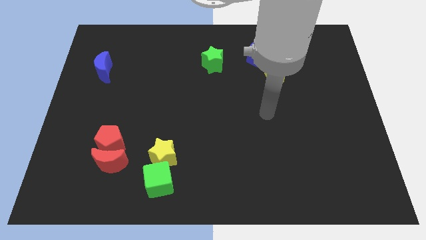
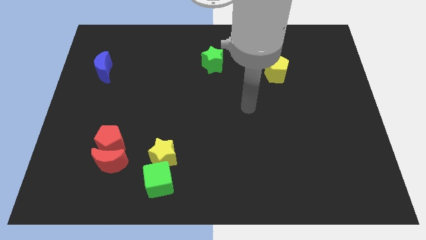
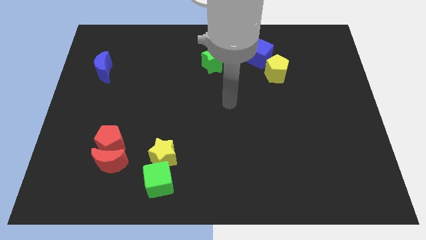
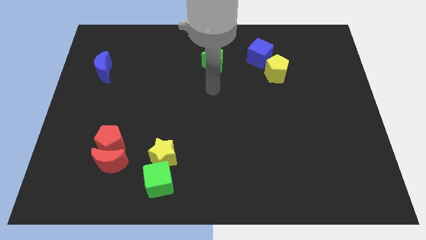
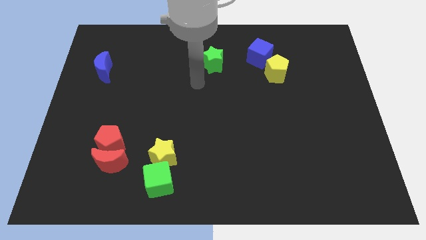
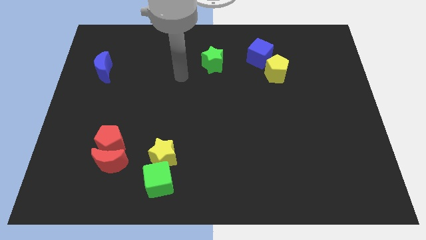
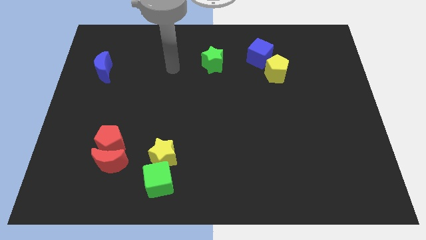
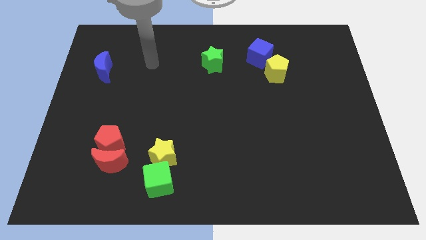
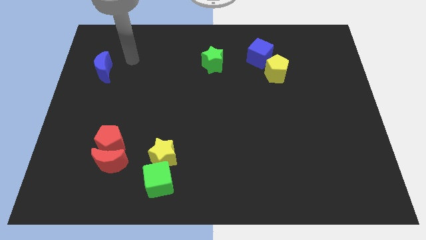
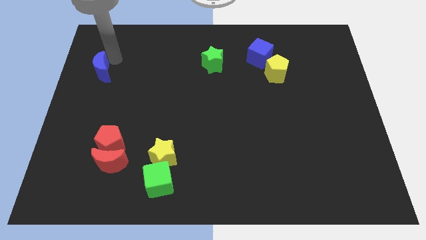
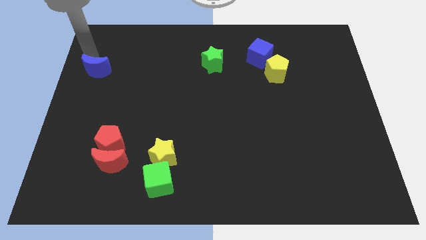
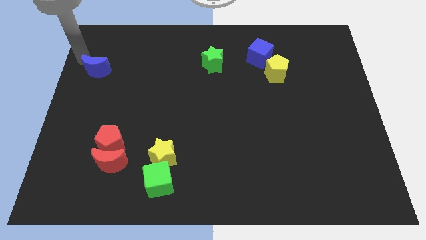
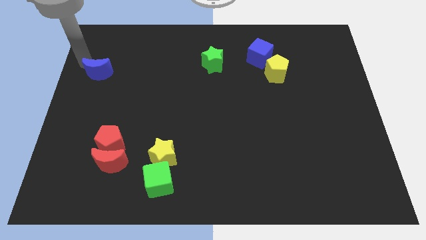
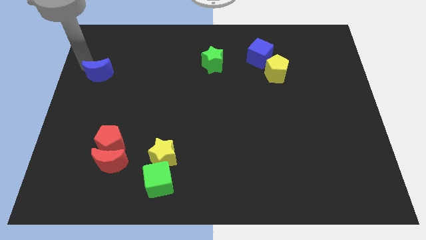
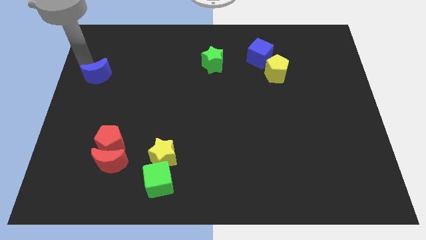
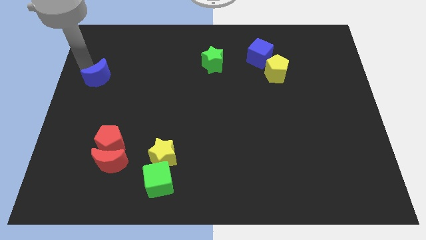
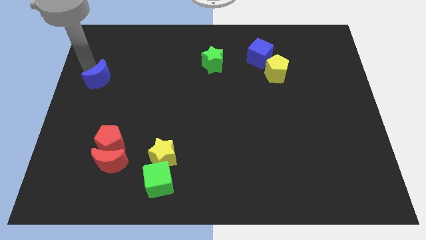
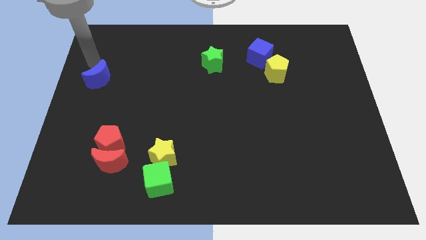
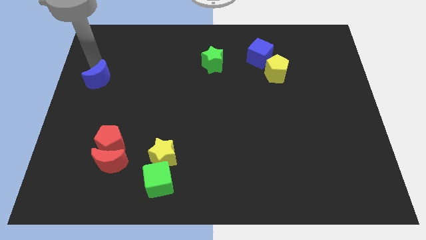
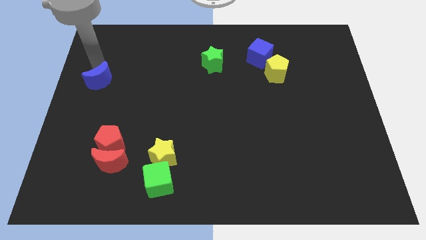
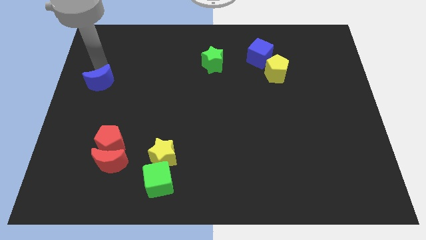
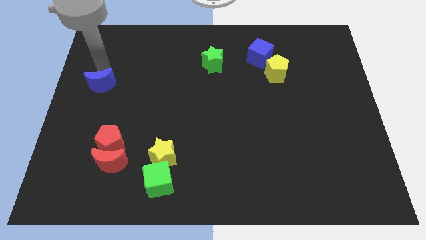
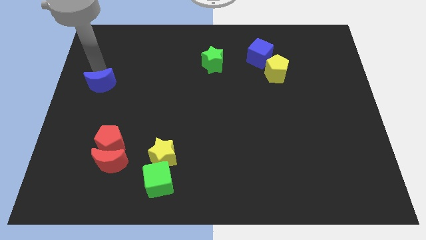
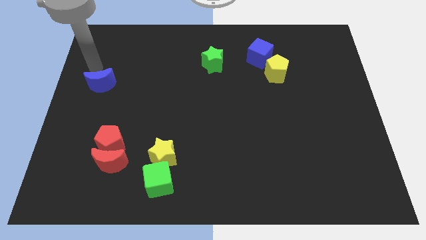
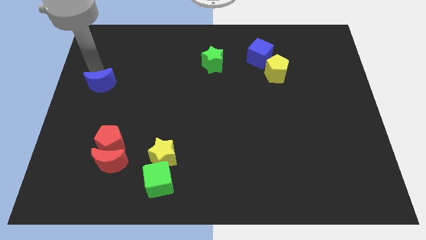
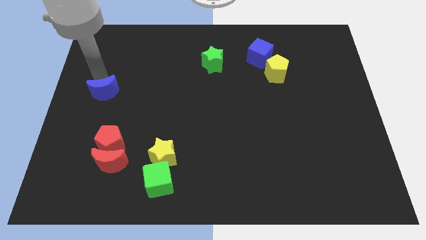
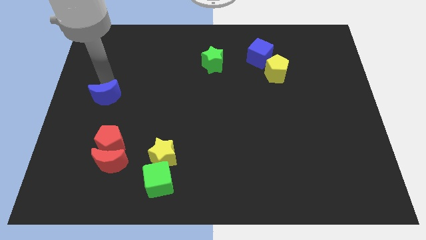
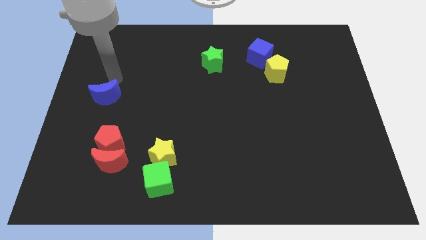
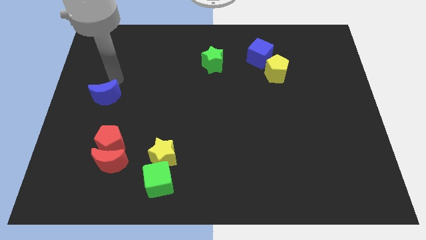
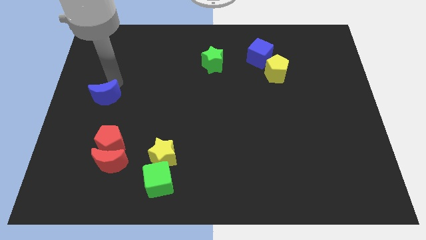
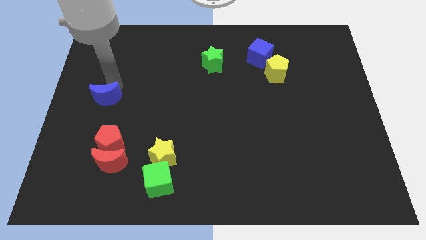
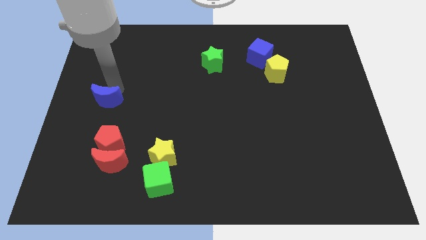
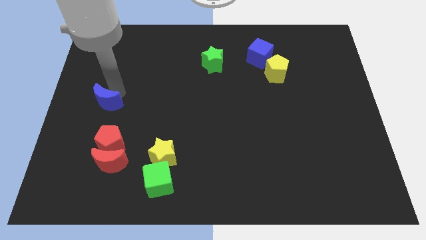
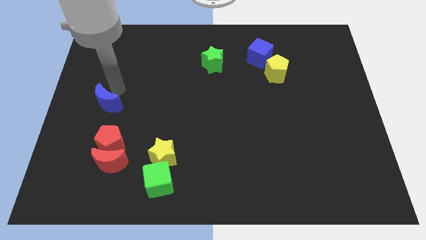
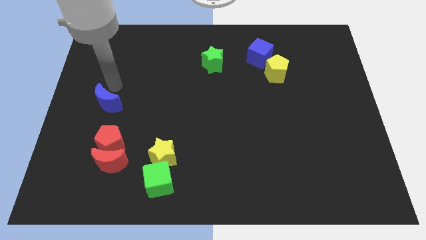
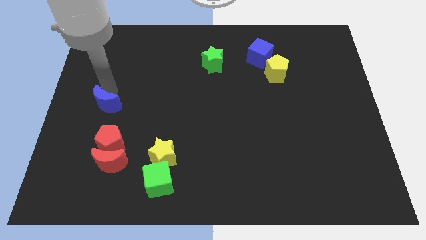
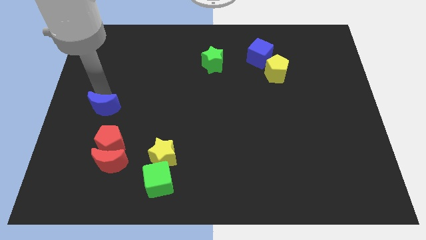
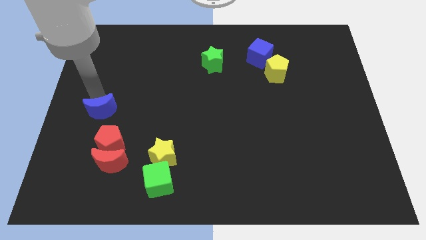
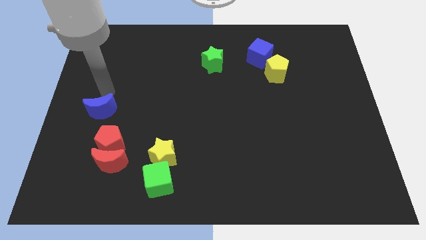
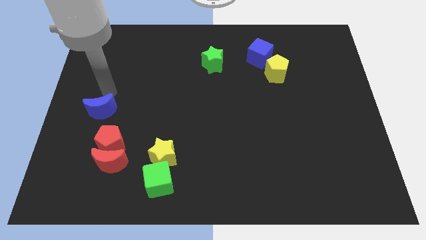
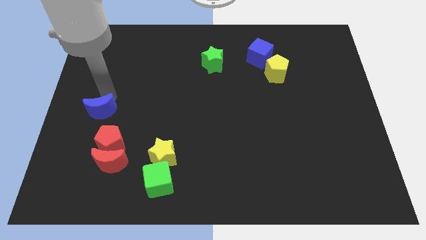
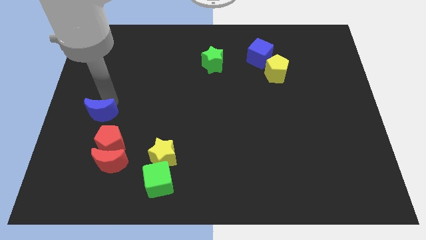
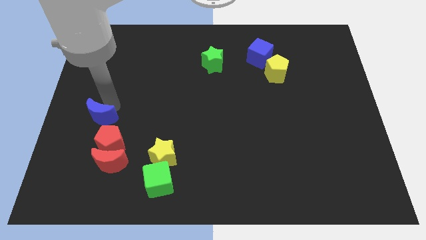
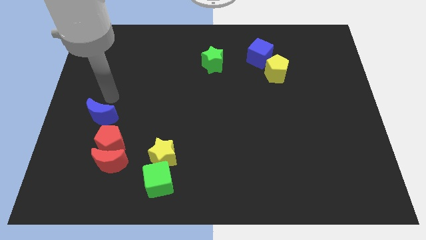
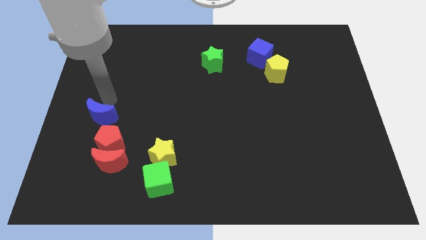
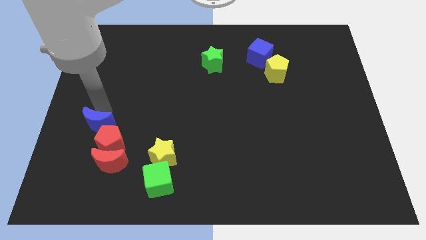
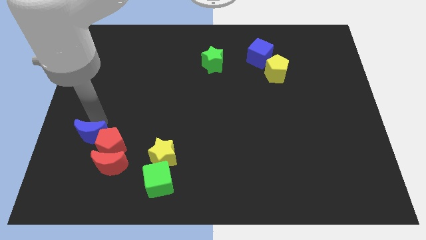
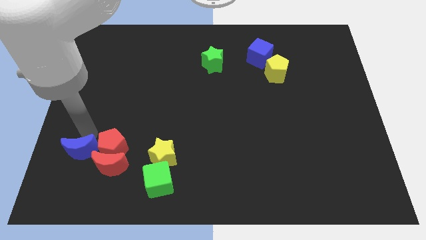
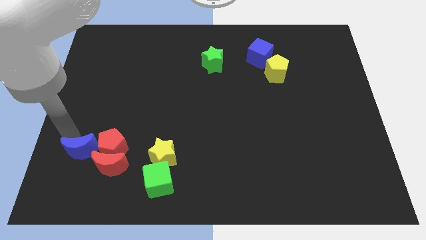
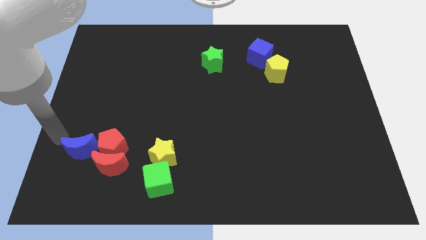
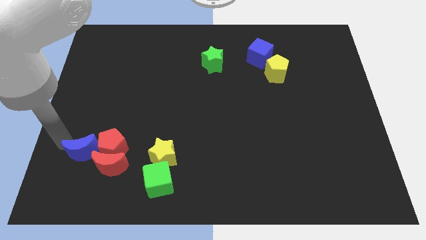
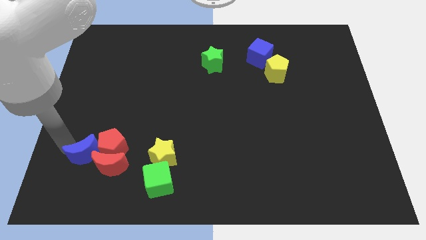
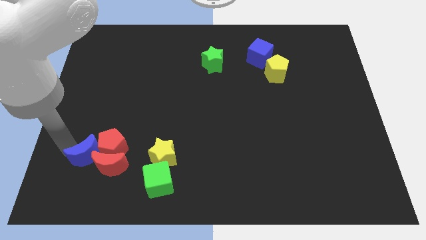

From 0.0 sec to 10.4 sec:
push the blue moon towards the red moon

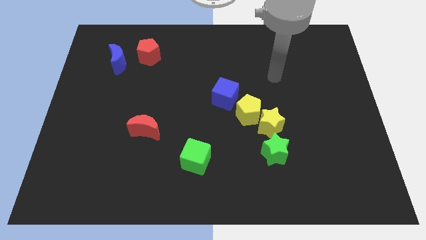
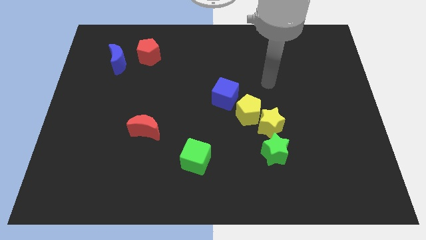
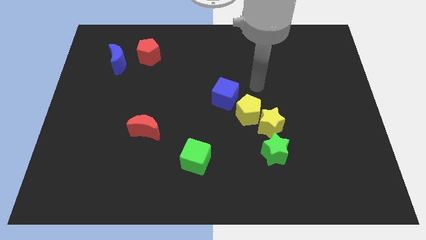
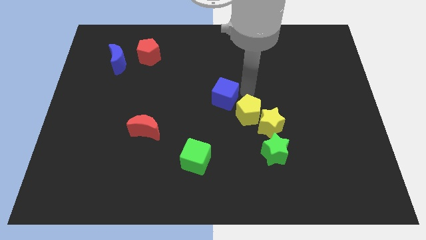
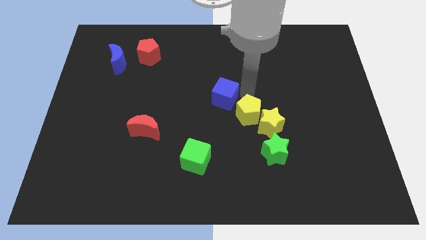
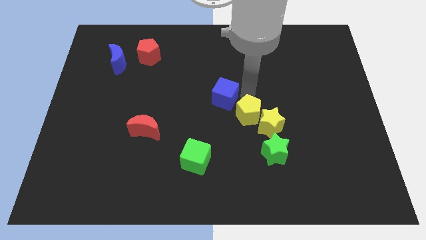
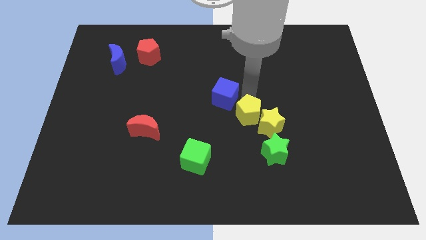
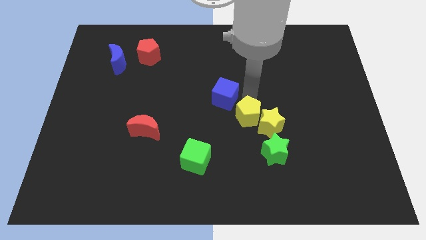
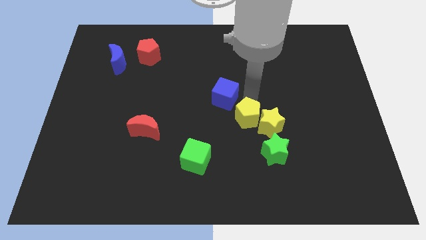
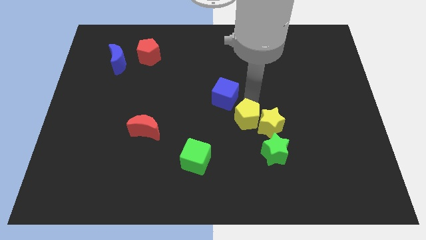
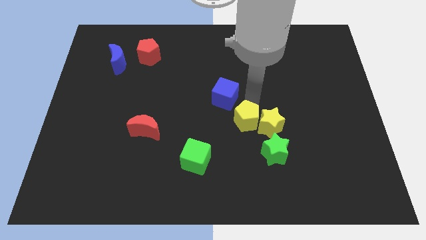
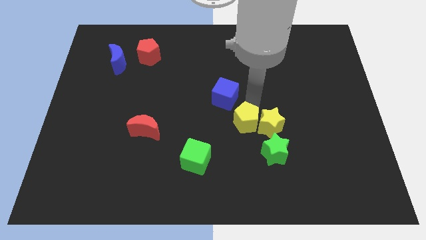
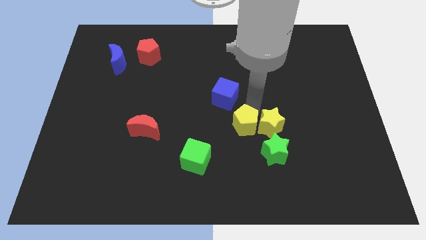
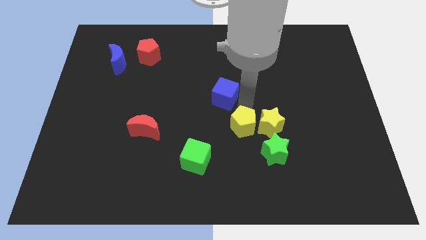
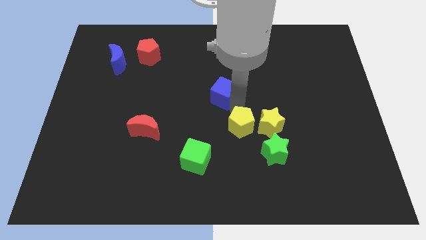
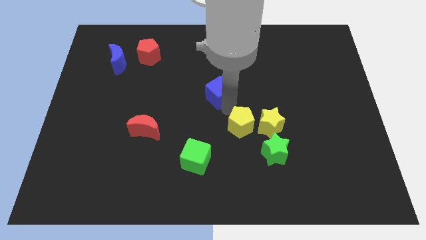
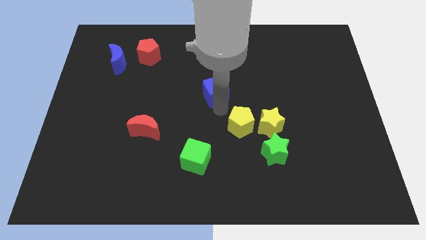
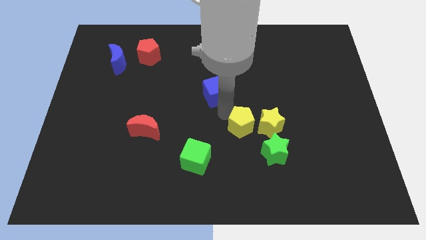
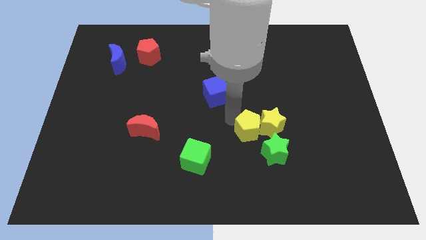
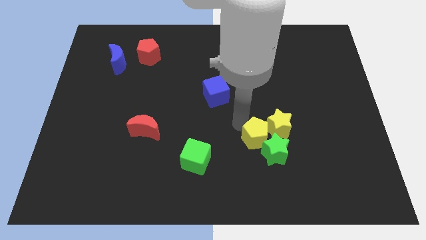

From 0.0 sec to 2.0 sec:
slide the yellow pentagon close to the green star
